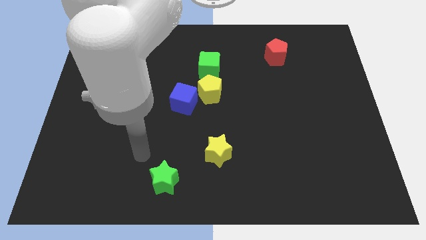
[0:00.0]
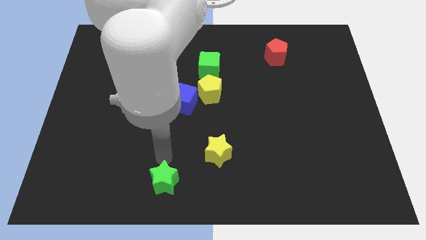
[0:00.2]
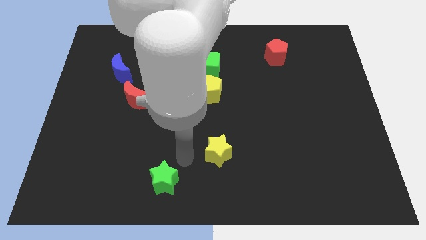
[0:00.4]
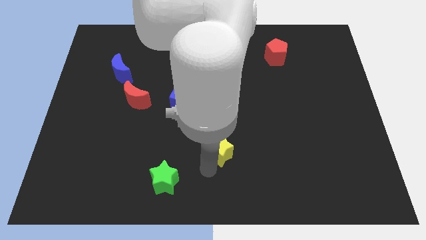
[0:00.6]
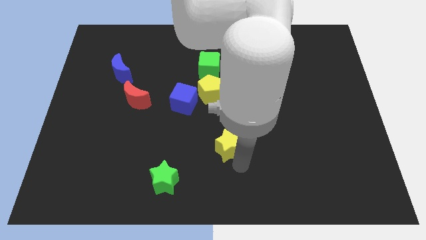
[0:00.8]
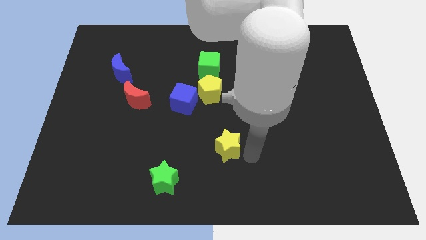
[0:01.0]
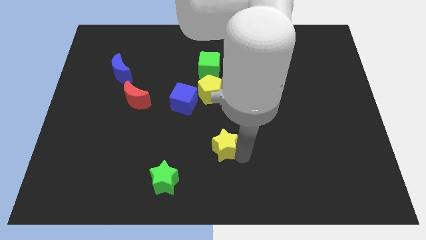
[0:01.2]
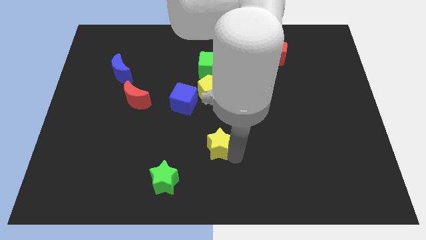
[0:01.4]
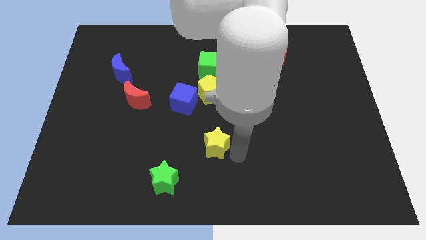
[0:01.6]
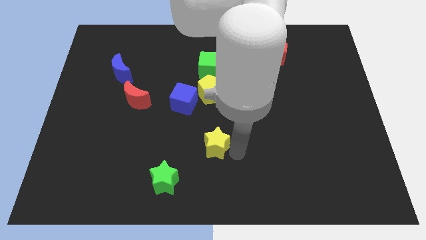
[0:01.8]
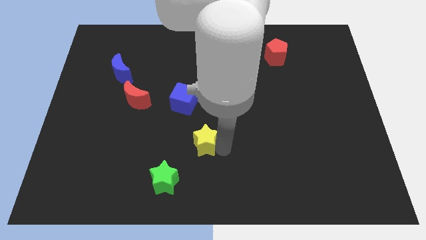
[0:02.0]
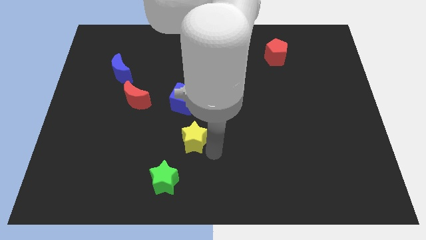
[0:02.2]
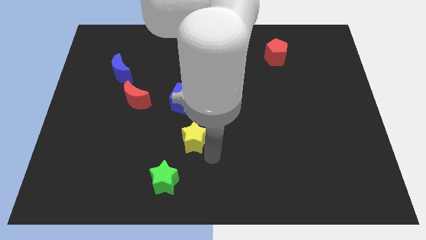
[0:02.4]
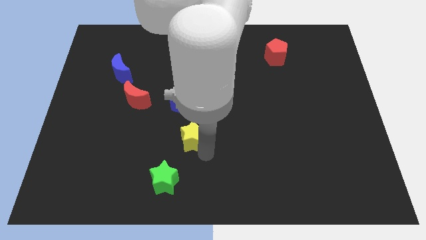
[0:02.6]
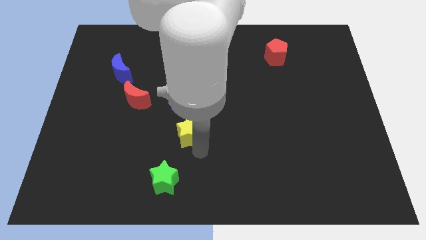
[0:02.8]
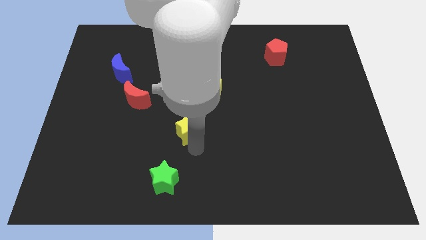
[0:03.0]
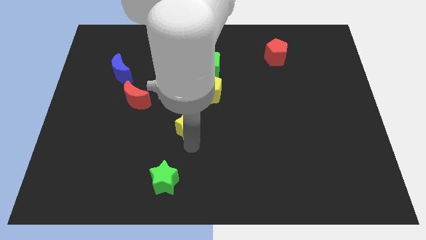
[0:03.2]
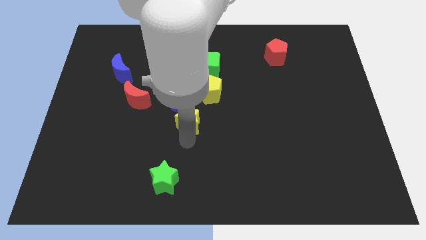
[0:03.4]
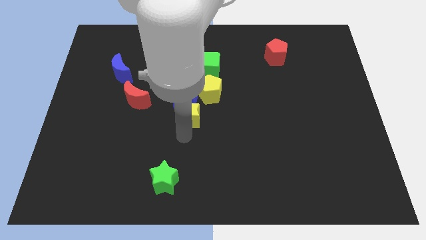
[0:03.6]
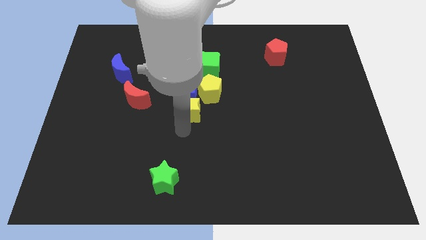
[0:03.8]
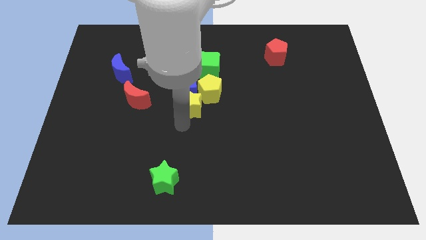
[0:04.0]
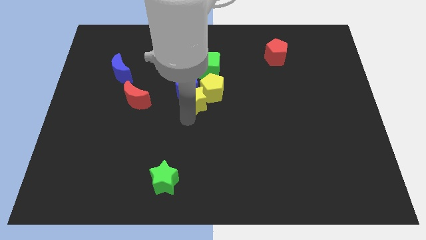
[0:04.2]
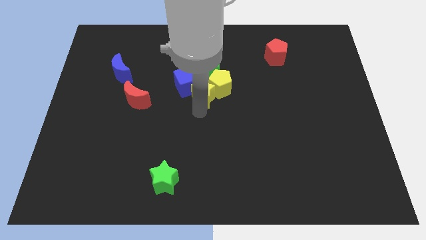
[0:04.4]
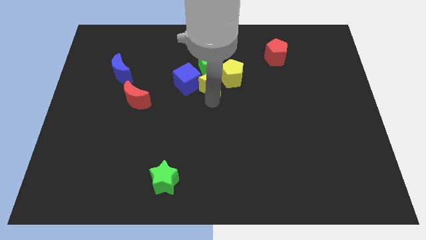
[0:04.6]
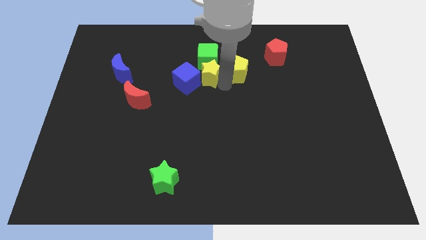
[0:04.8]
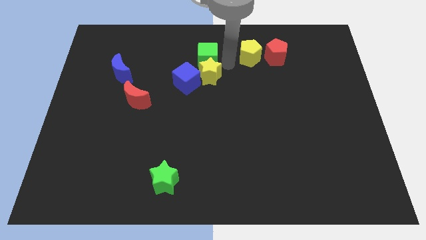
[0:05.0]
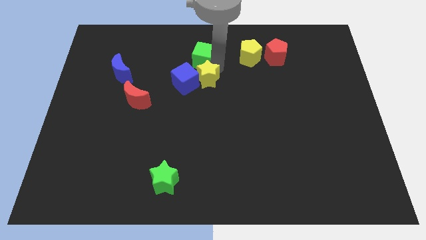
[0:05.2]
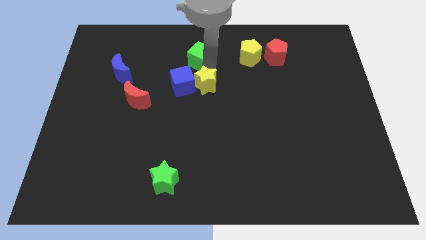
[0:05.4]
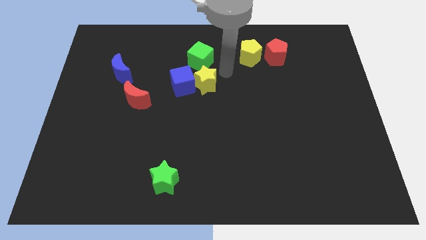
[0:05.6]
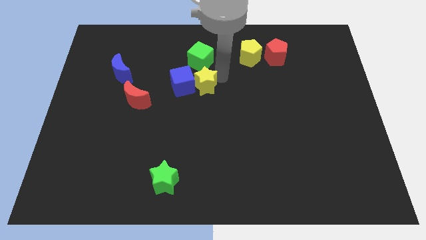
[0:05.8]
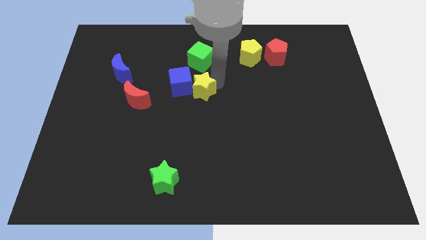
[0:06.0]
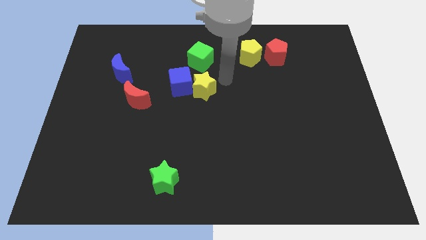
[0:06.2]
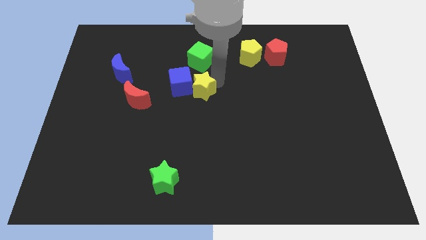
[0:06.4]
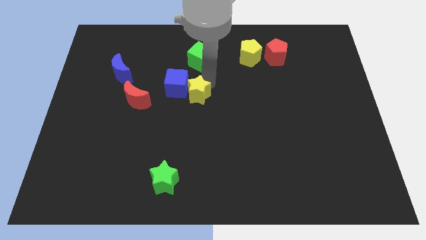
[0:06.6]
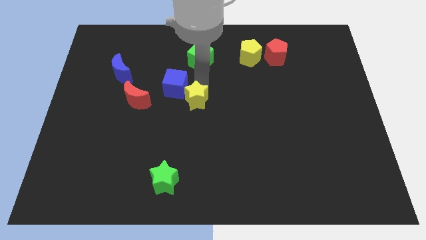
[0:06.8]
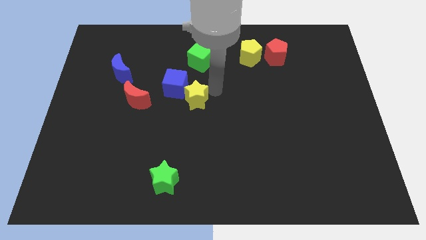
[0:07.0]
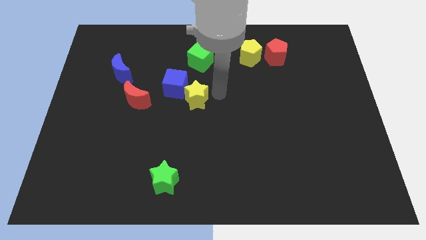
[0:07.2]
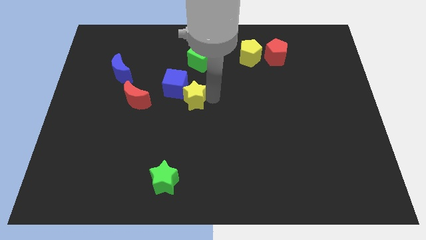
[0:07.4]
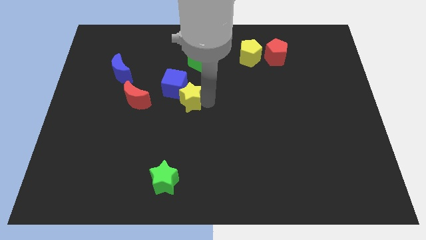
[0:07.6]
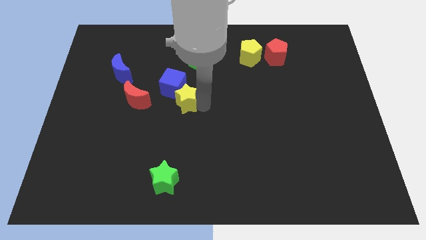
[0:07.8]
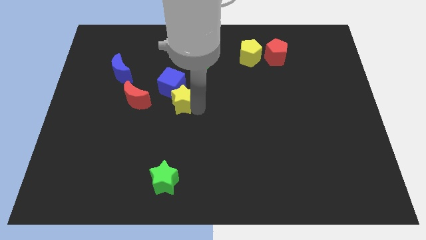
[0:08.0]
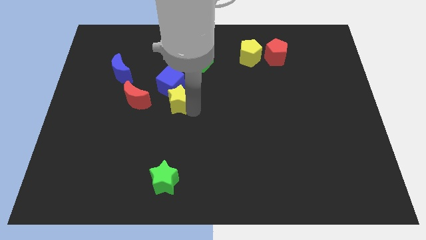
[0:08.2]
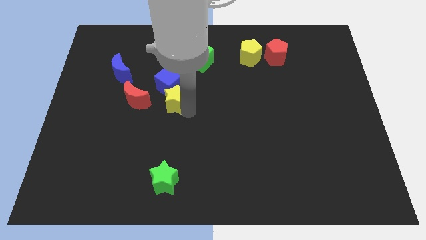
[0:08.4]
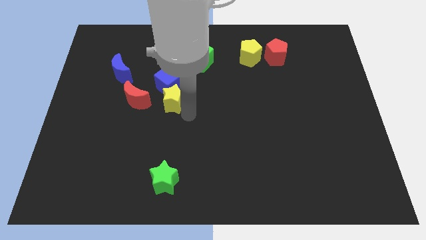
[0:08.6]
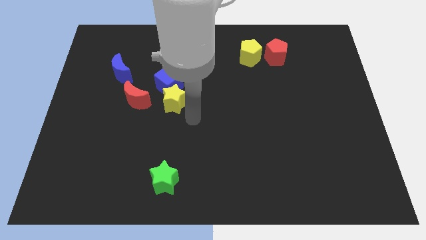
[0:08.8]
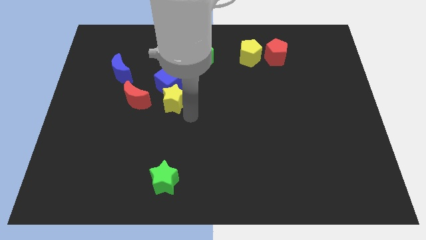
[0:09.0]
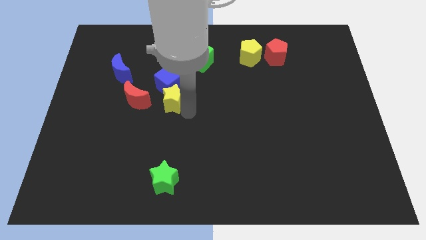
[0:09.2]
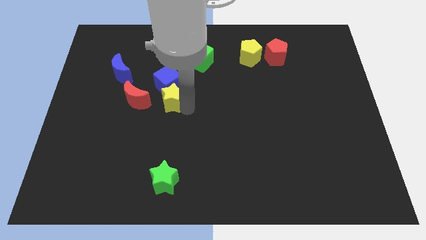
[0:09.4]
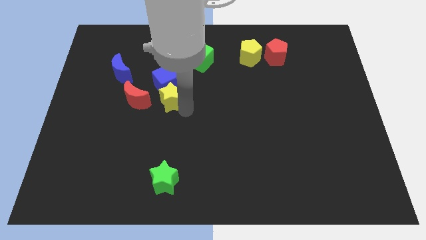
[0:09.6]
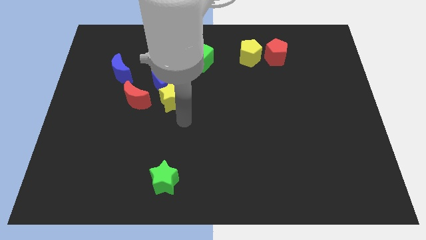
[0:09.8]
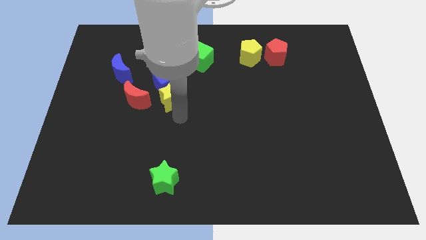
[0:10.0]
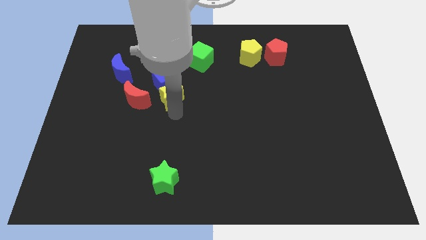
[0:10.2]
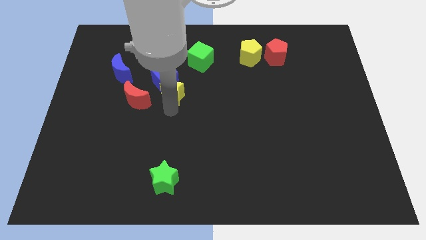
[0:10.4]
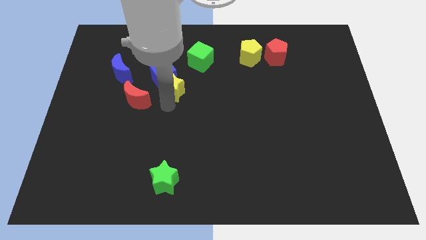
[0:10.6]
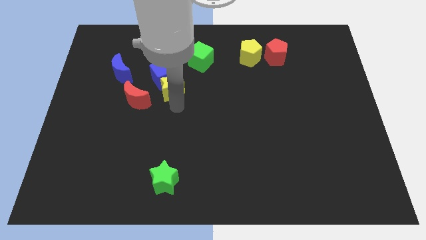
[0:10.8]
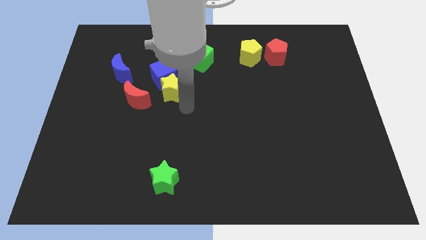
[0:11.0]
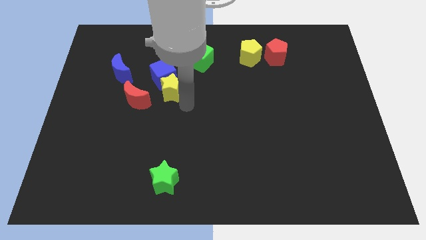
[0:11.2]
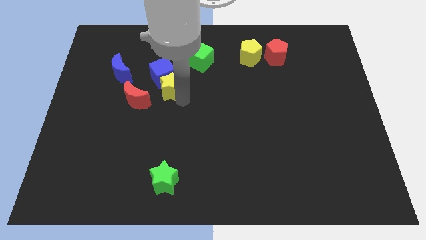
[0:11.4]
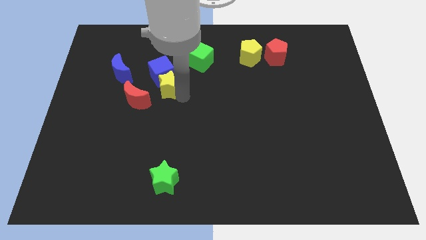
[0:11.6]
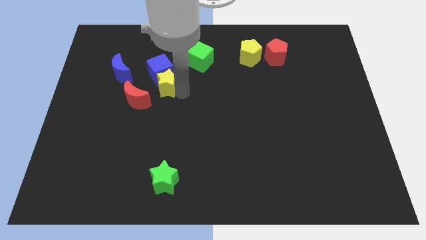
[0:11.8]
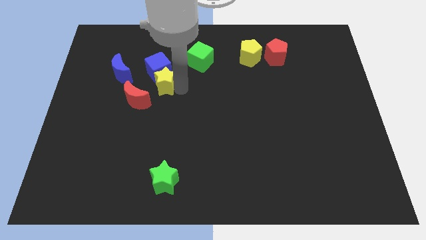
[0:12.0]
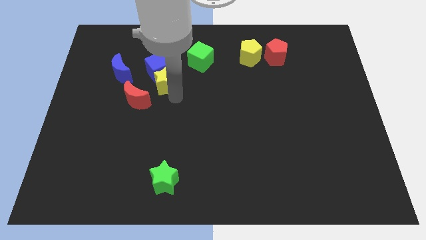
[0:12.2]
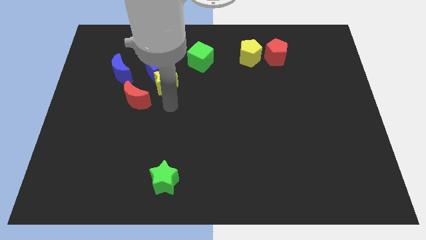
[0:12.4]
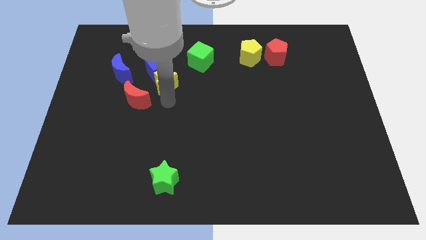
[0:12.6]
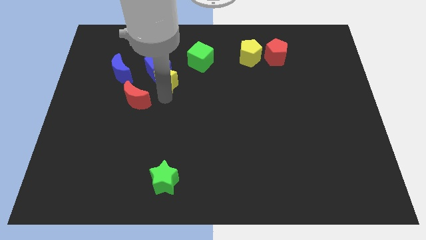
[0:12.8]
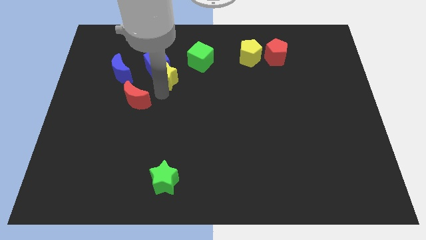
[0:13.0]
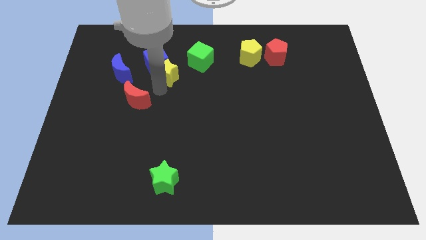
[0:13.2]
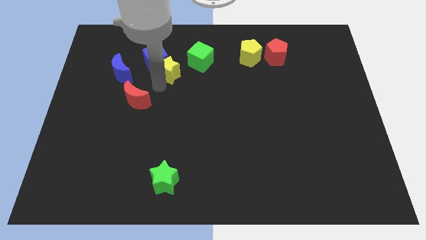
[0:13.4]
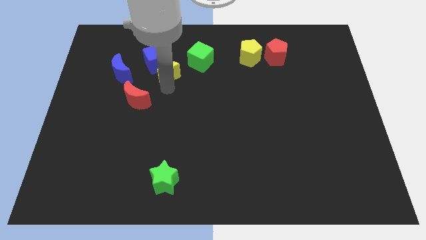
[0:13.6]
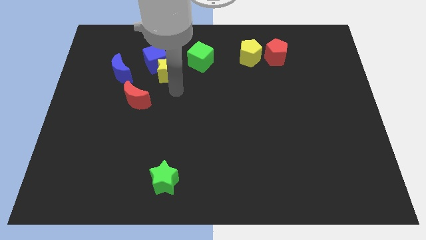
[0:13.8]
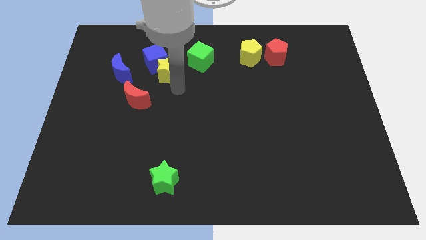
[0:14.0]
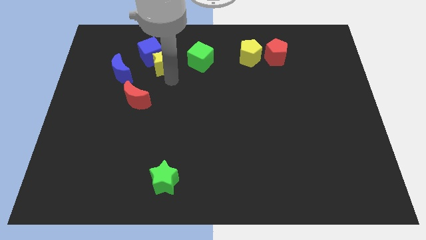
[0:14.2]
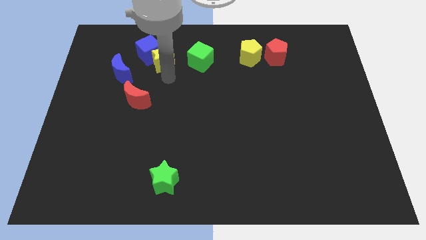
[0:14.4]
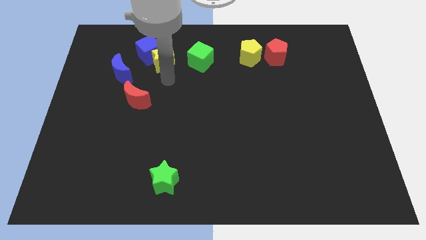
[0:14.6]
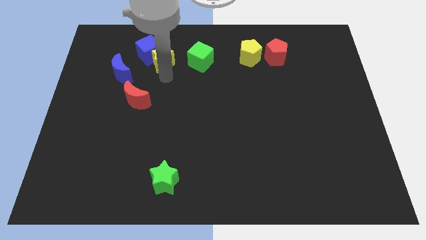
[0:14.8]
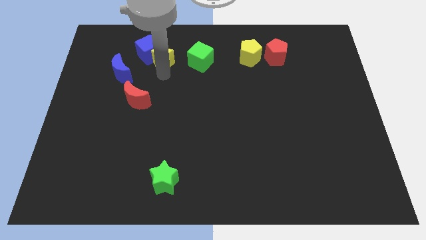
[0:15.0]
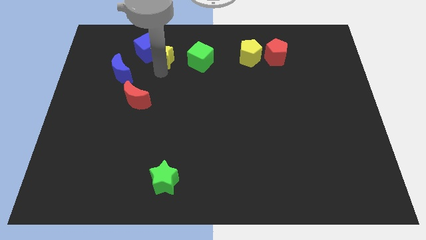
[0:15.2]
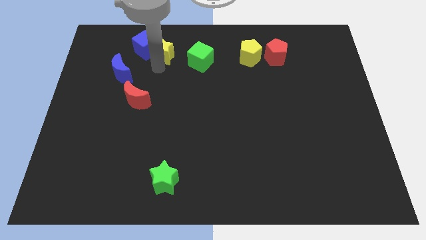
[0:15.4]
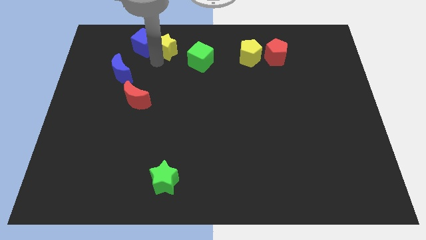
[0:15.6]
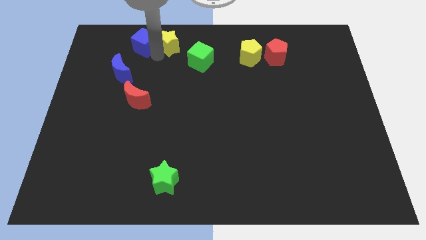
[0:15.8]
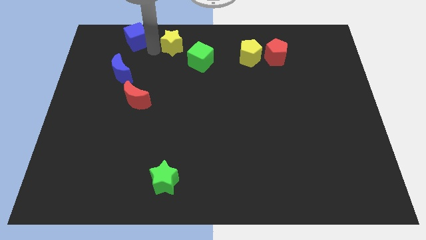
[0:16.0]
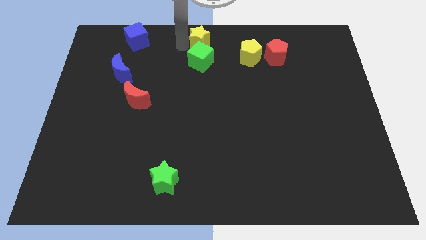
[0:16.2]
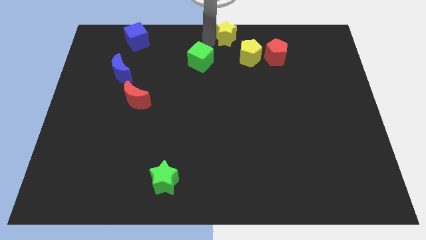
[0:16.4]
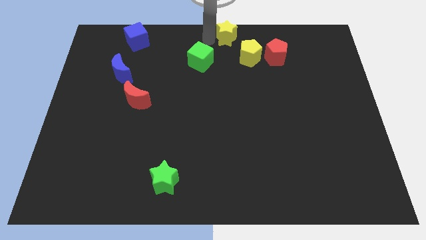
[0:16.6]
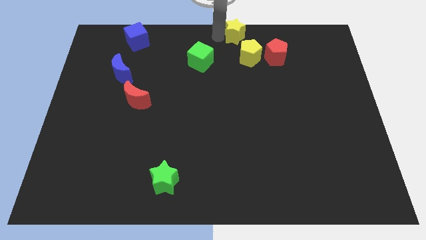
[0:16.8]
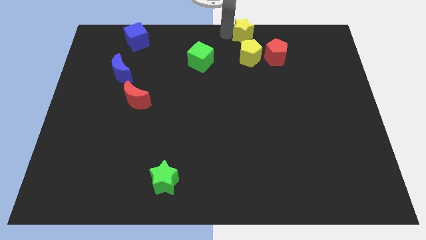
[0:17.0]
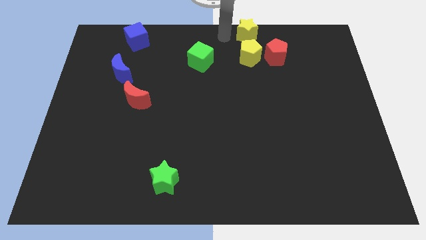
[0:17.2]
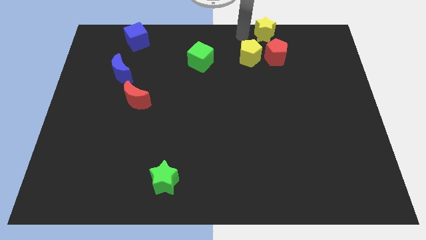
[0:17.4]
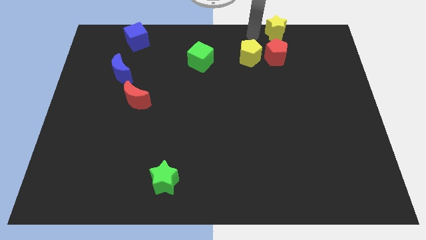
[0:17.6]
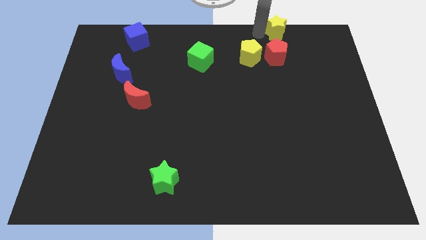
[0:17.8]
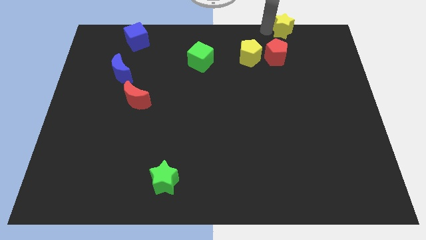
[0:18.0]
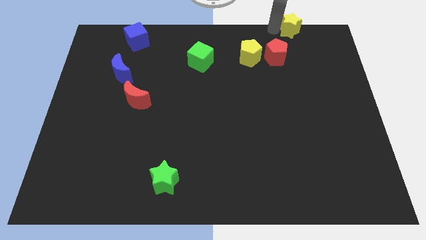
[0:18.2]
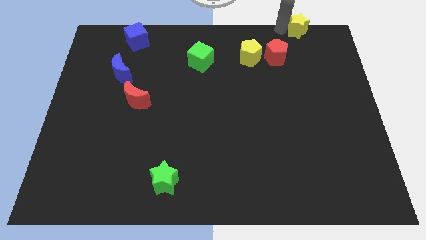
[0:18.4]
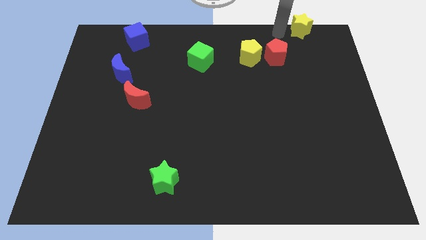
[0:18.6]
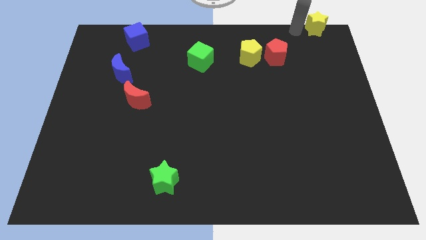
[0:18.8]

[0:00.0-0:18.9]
push the yellow star to the top right
